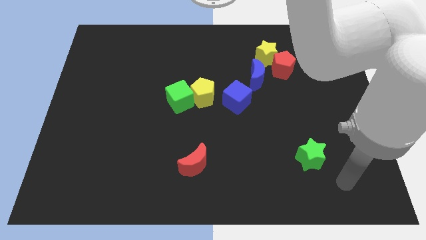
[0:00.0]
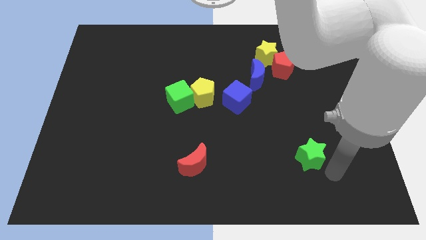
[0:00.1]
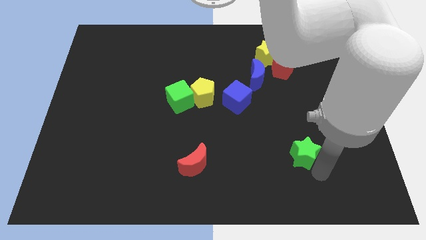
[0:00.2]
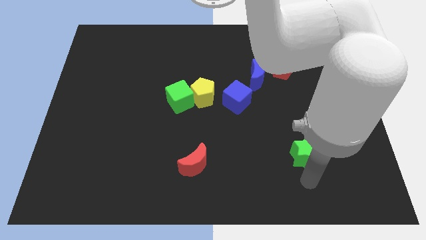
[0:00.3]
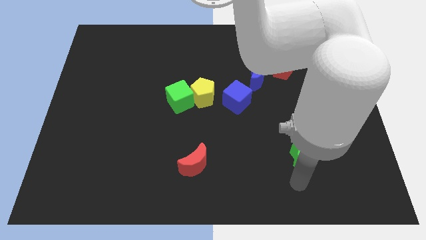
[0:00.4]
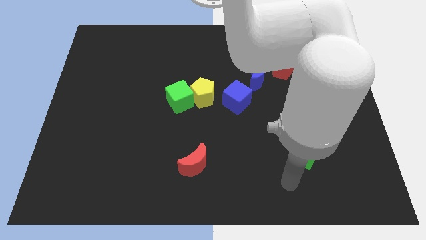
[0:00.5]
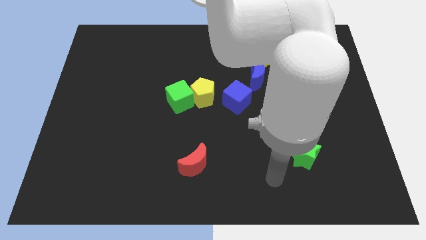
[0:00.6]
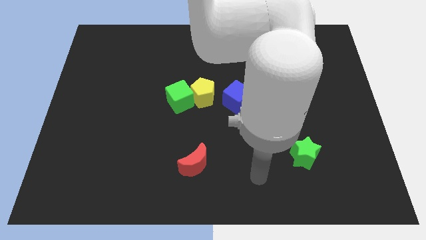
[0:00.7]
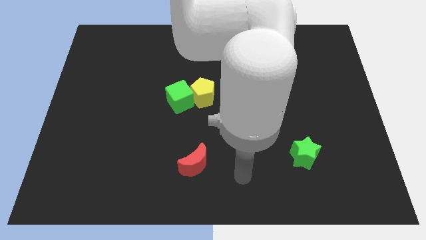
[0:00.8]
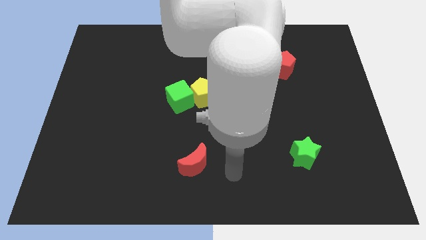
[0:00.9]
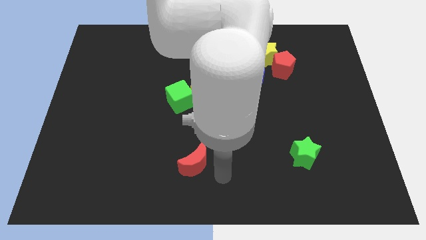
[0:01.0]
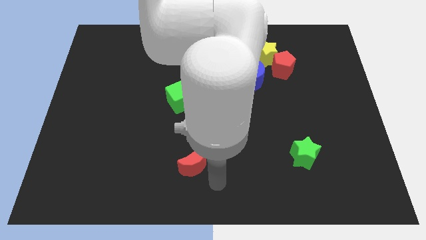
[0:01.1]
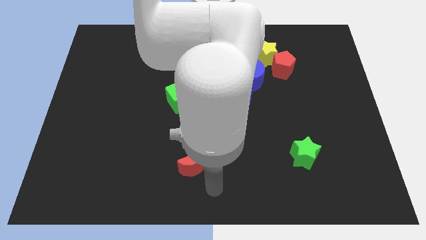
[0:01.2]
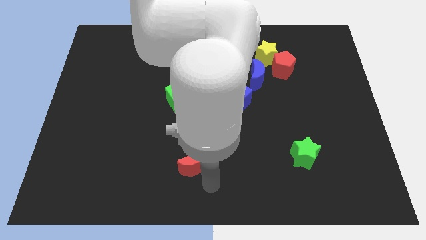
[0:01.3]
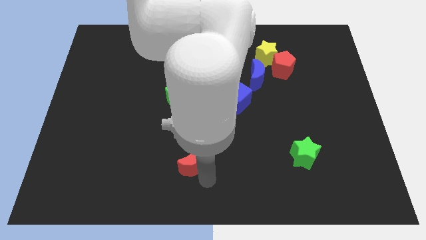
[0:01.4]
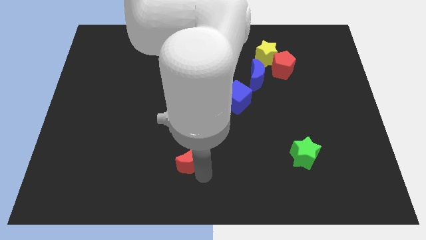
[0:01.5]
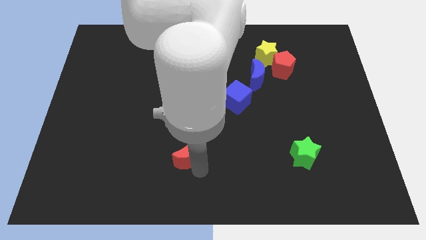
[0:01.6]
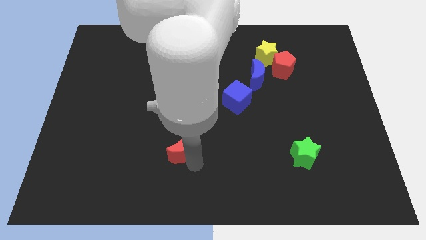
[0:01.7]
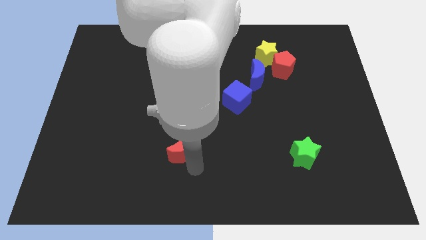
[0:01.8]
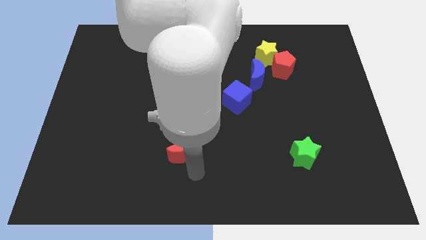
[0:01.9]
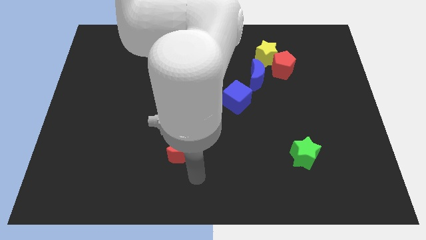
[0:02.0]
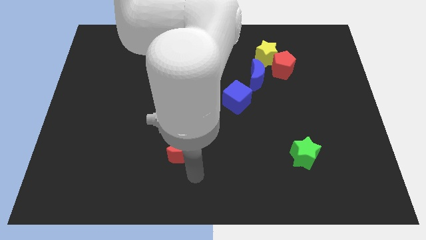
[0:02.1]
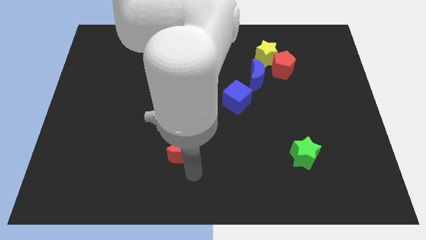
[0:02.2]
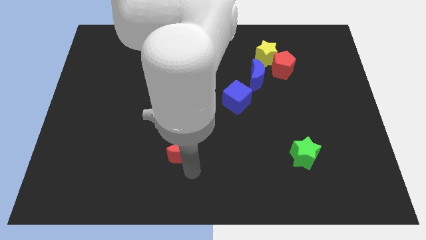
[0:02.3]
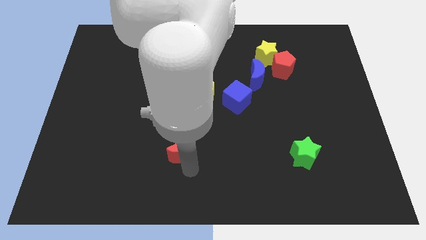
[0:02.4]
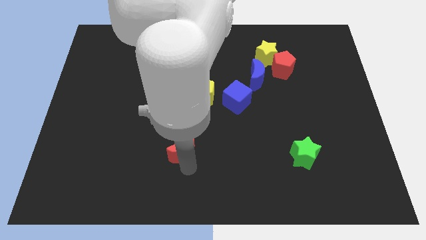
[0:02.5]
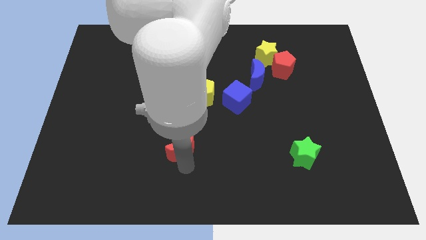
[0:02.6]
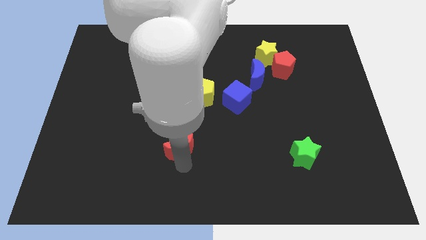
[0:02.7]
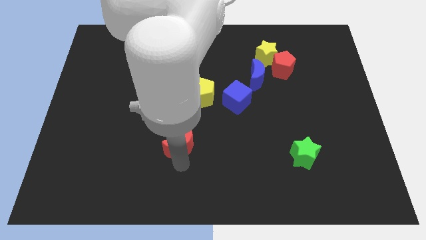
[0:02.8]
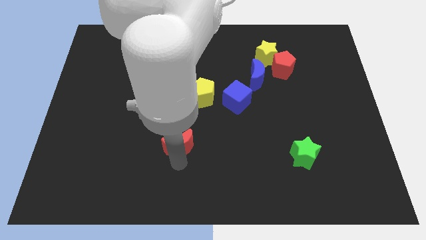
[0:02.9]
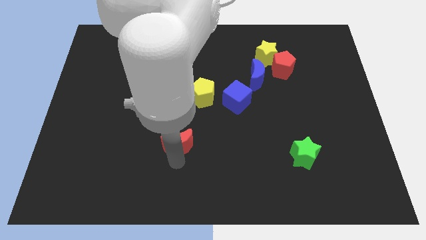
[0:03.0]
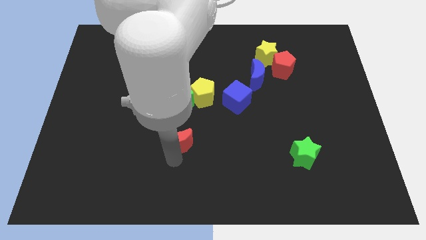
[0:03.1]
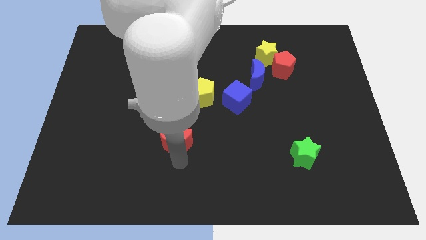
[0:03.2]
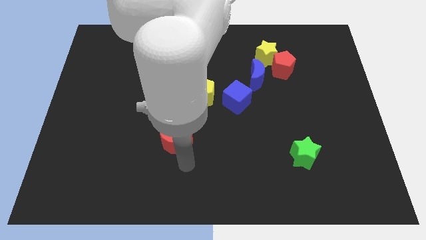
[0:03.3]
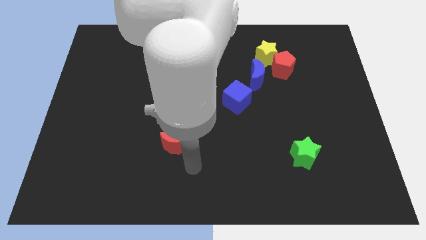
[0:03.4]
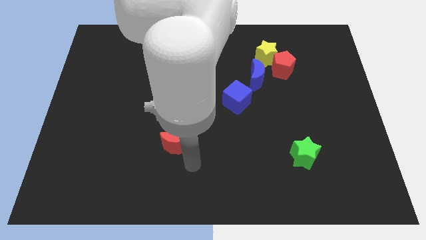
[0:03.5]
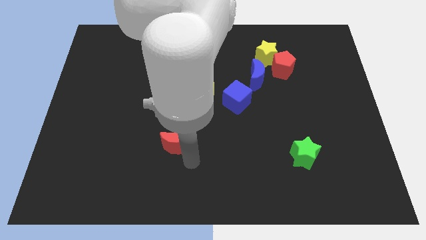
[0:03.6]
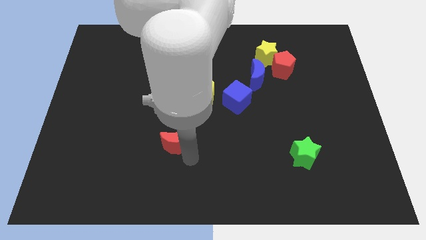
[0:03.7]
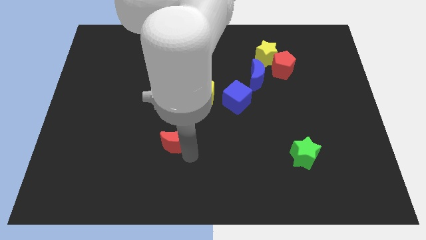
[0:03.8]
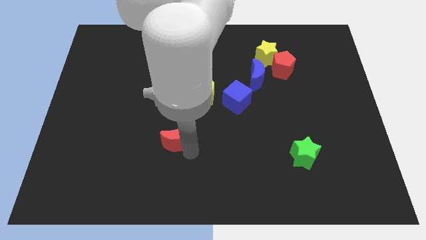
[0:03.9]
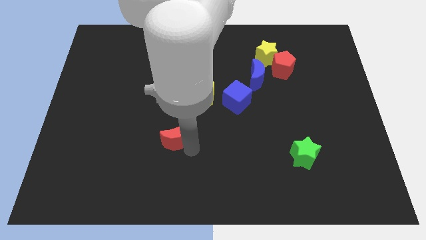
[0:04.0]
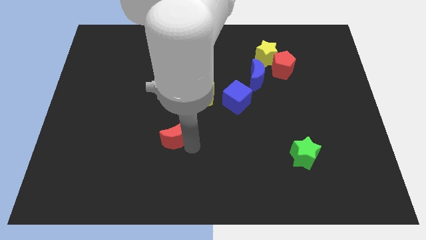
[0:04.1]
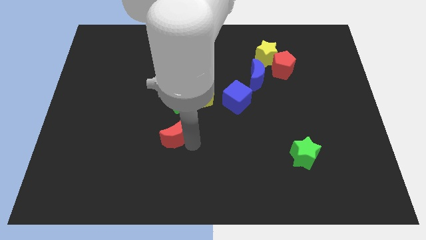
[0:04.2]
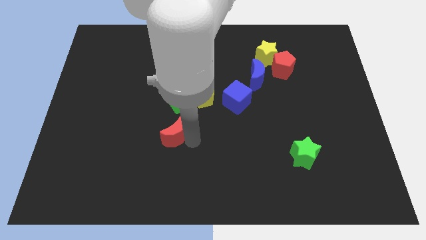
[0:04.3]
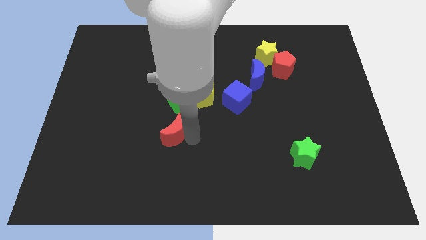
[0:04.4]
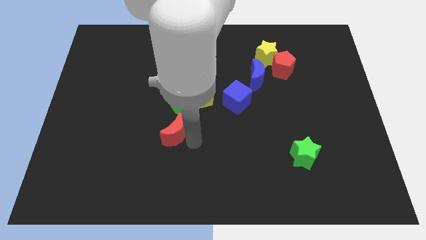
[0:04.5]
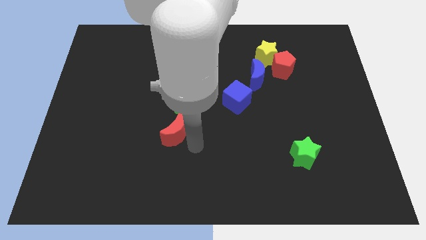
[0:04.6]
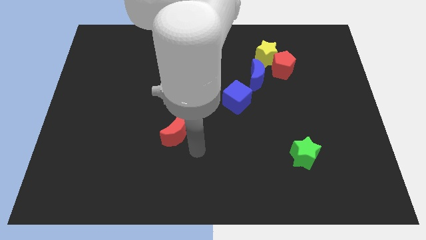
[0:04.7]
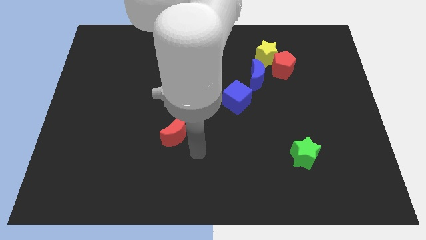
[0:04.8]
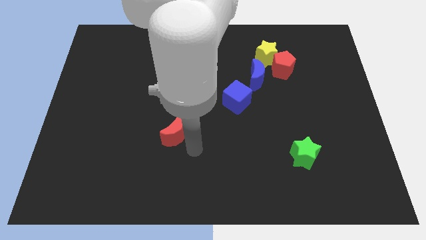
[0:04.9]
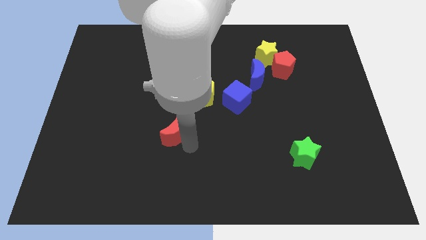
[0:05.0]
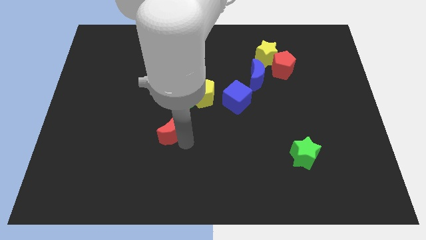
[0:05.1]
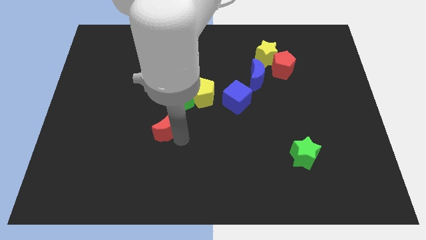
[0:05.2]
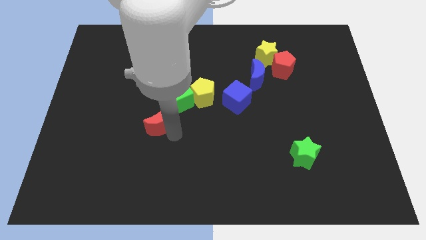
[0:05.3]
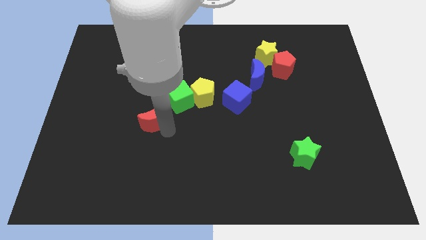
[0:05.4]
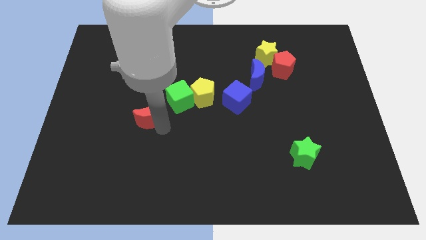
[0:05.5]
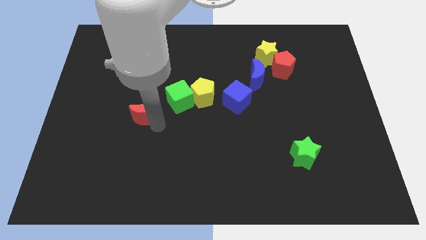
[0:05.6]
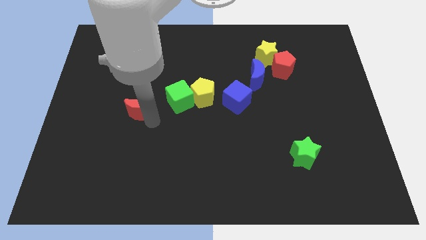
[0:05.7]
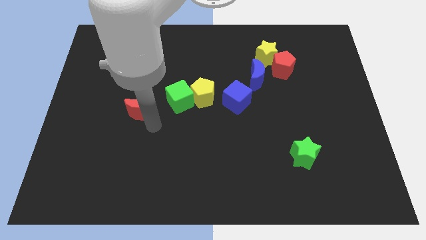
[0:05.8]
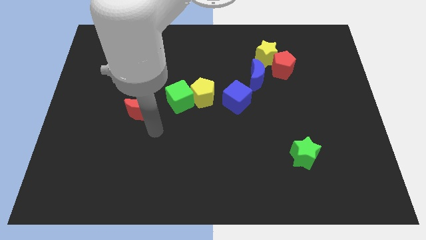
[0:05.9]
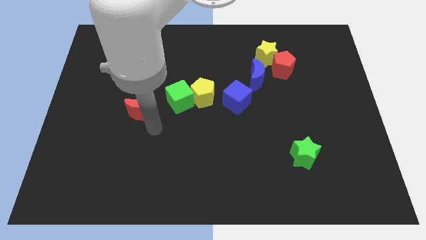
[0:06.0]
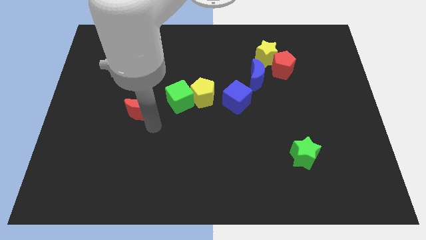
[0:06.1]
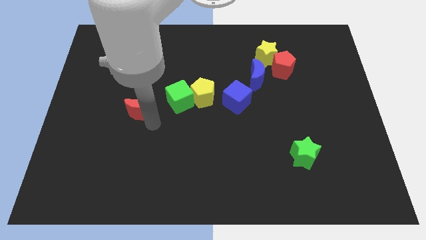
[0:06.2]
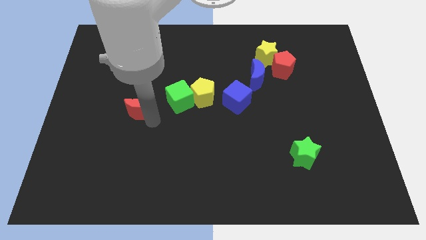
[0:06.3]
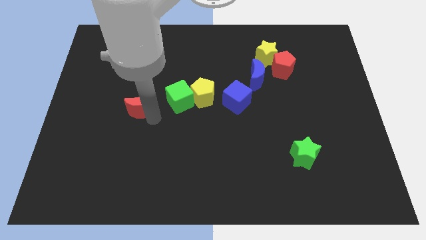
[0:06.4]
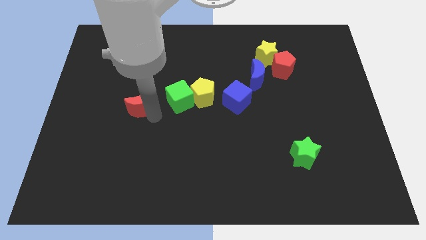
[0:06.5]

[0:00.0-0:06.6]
push the red moon up and then to the left

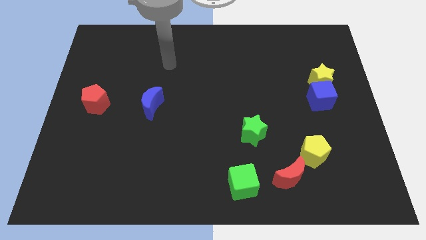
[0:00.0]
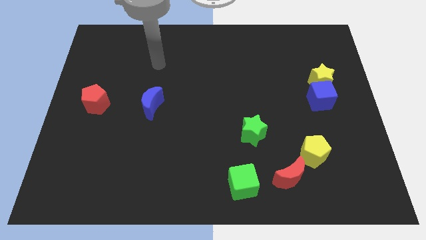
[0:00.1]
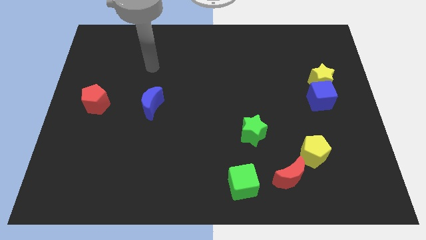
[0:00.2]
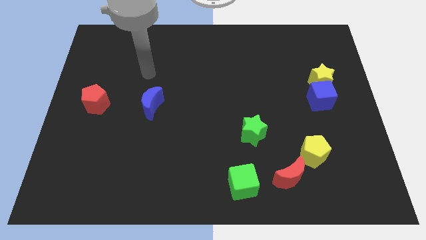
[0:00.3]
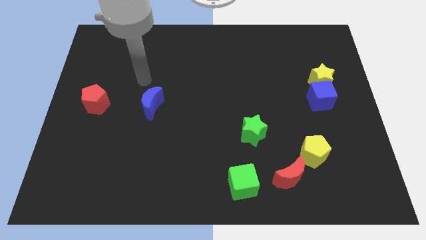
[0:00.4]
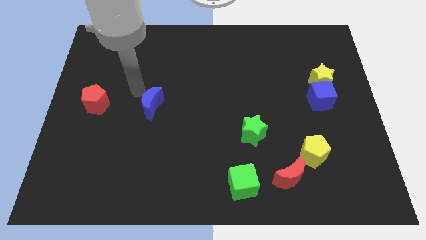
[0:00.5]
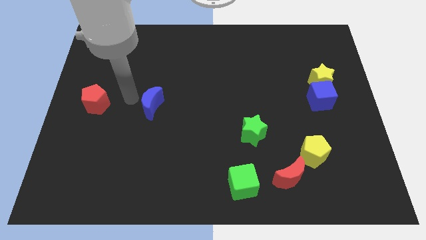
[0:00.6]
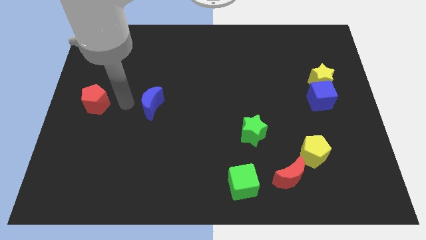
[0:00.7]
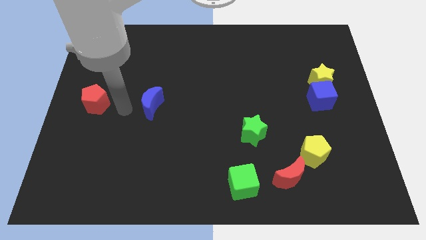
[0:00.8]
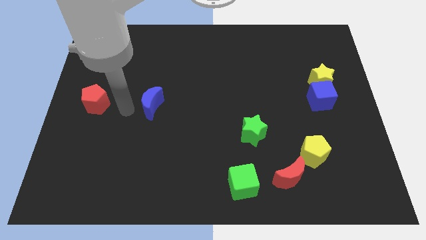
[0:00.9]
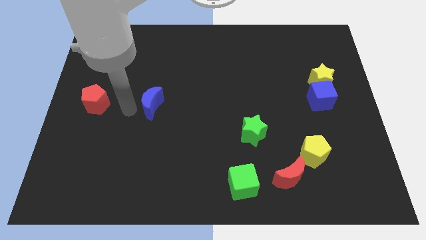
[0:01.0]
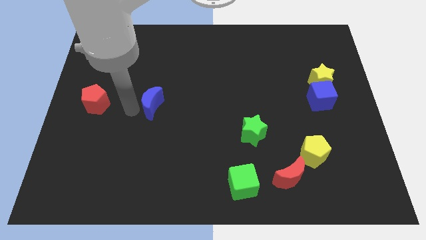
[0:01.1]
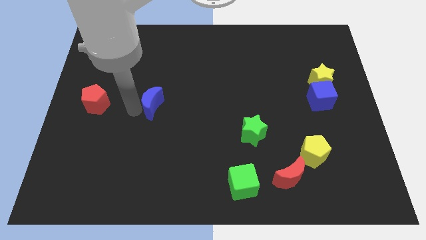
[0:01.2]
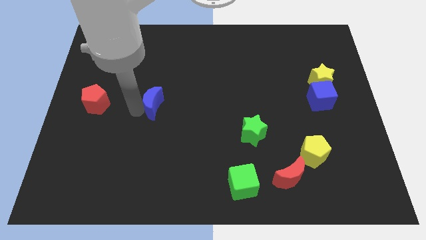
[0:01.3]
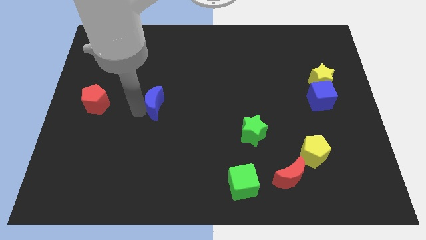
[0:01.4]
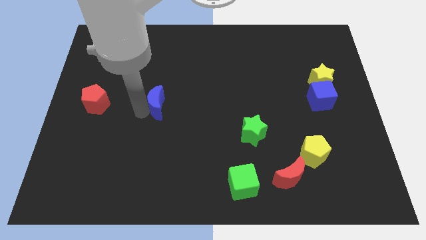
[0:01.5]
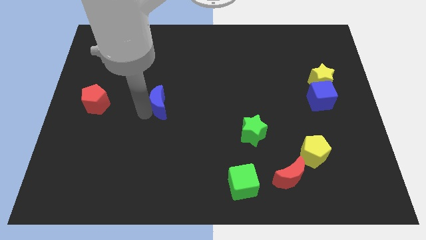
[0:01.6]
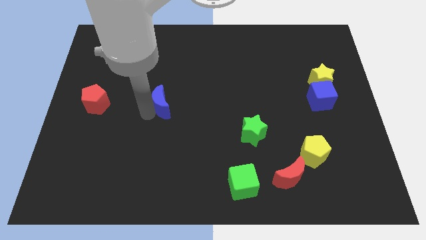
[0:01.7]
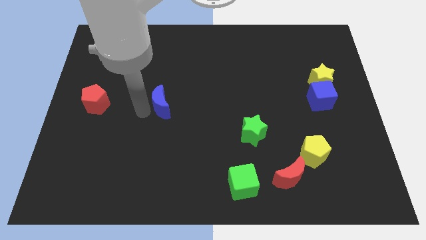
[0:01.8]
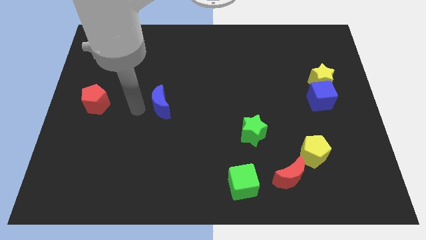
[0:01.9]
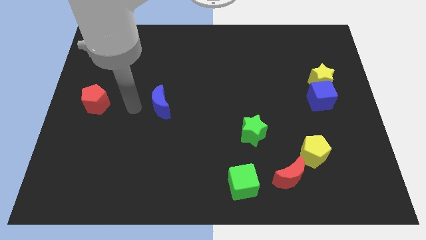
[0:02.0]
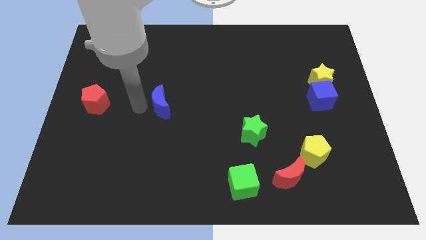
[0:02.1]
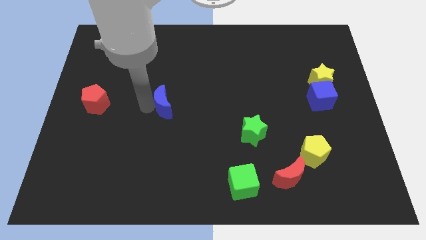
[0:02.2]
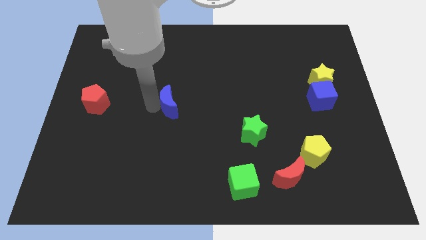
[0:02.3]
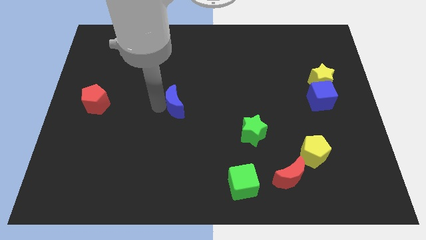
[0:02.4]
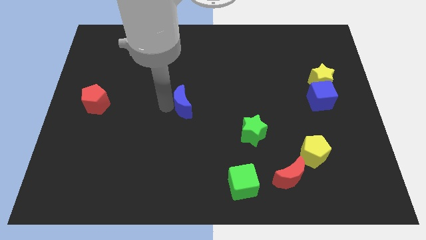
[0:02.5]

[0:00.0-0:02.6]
slide the blue moon somewhat to the right
